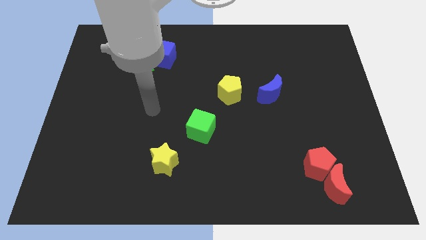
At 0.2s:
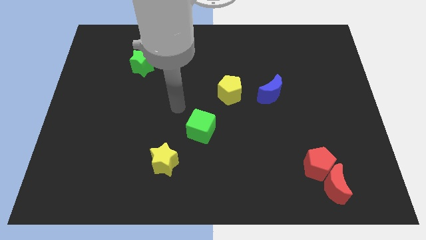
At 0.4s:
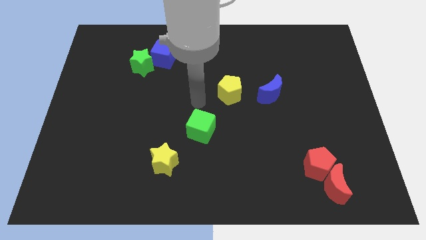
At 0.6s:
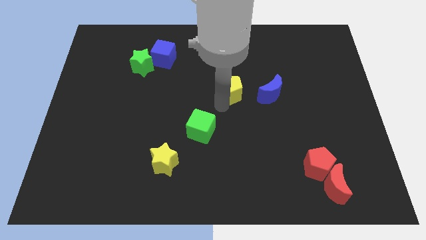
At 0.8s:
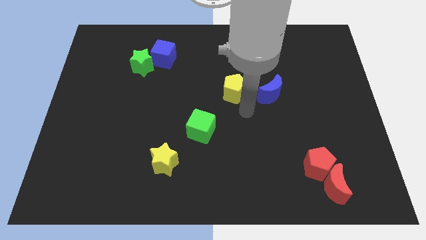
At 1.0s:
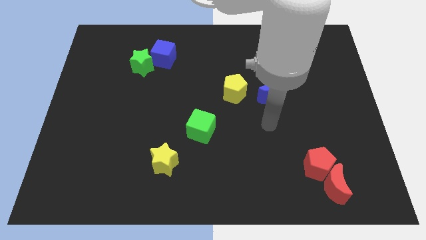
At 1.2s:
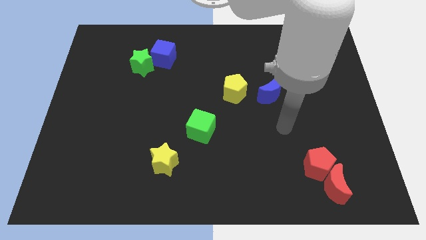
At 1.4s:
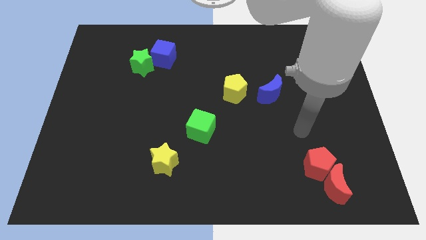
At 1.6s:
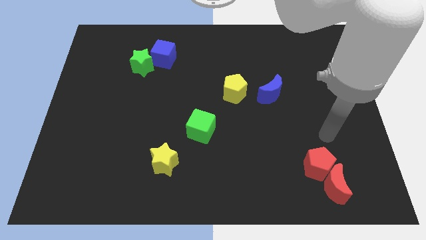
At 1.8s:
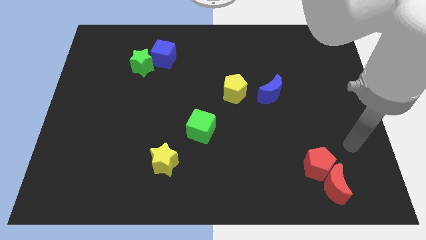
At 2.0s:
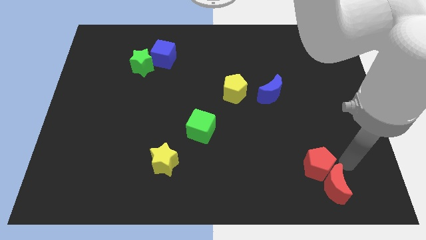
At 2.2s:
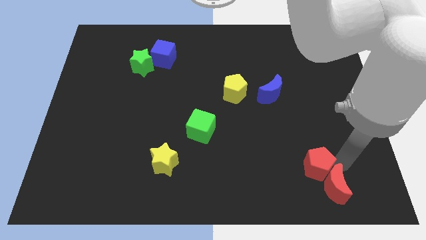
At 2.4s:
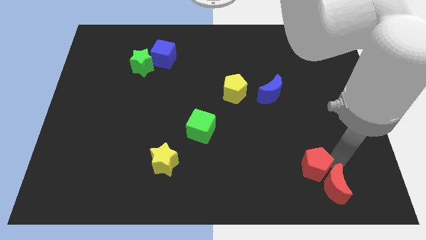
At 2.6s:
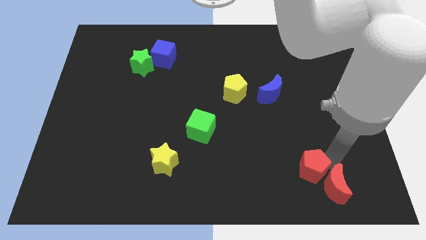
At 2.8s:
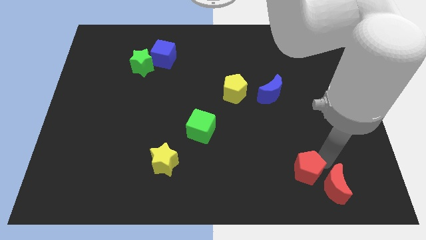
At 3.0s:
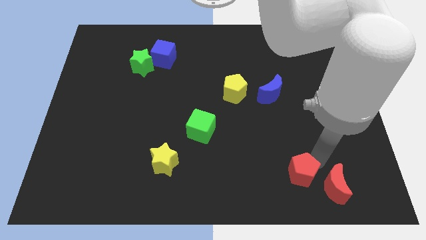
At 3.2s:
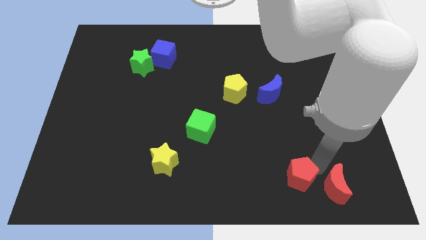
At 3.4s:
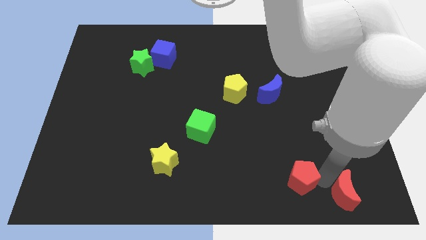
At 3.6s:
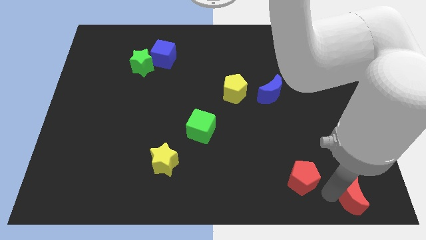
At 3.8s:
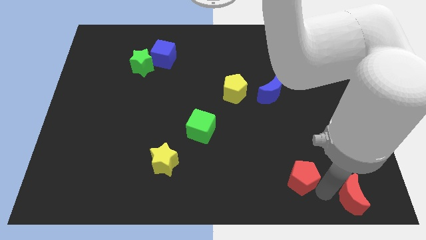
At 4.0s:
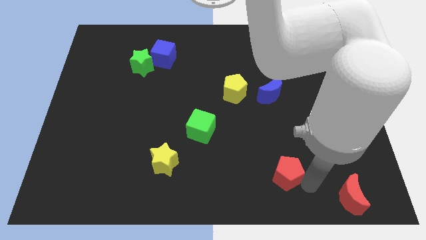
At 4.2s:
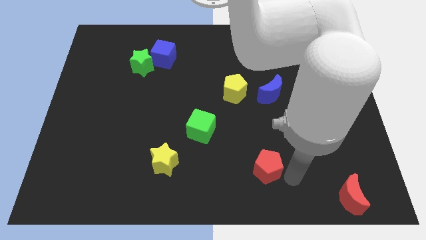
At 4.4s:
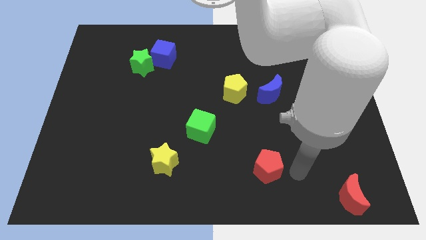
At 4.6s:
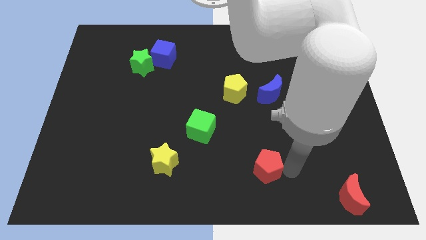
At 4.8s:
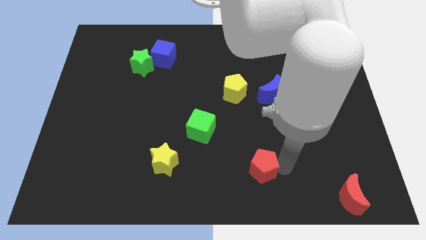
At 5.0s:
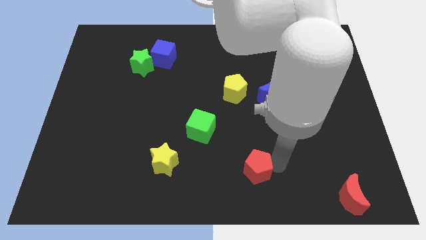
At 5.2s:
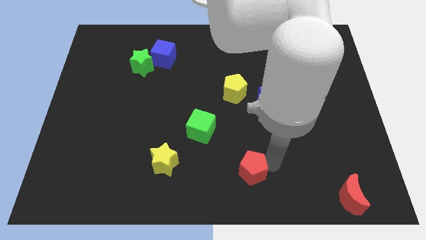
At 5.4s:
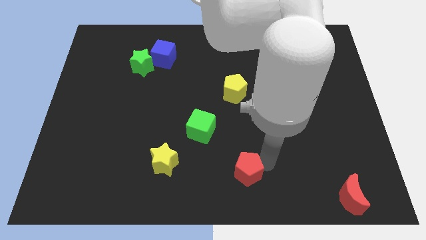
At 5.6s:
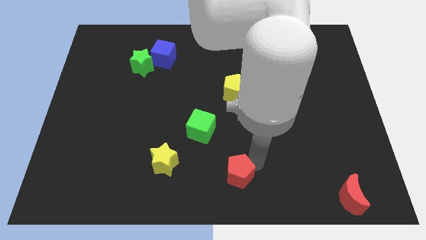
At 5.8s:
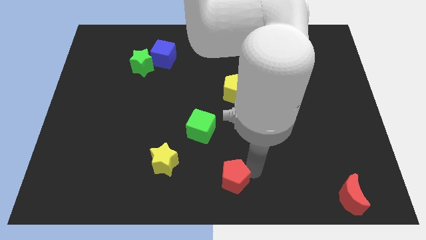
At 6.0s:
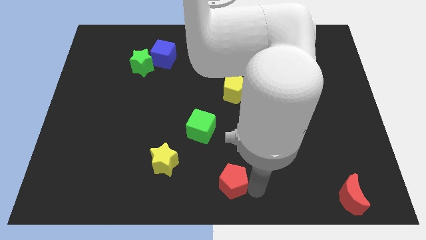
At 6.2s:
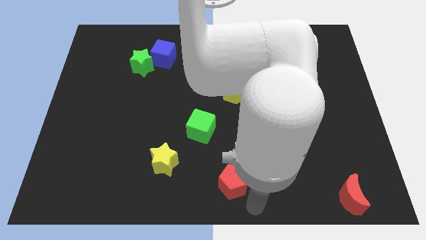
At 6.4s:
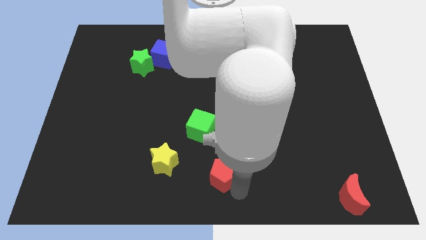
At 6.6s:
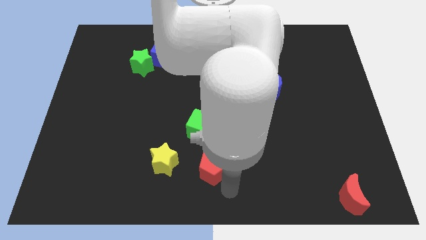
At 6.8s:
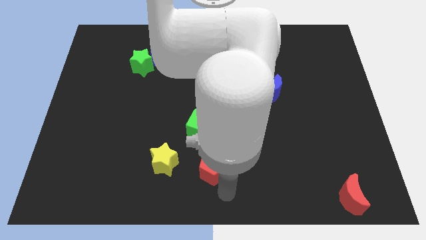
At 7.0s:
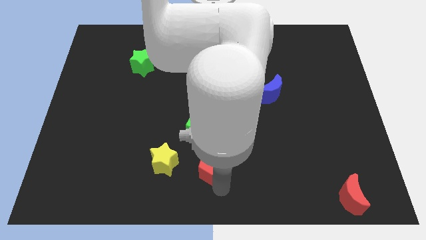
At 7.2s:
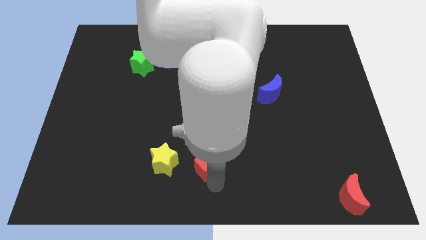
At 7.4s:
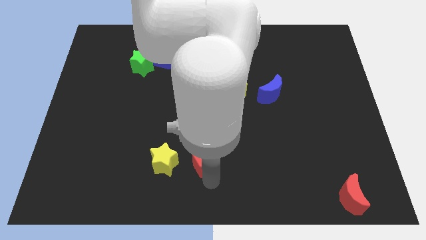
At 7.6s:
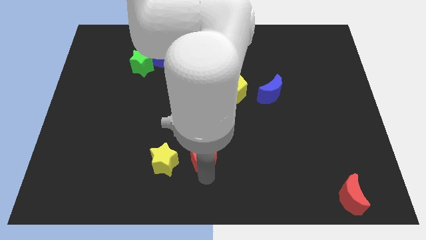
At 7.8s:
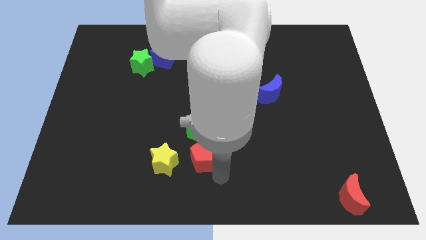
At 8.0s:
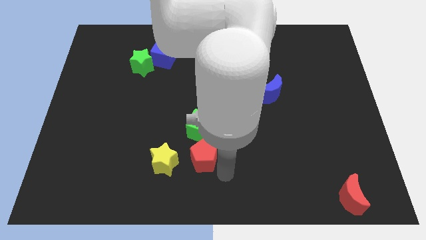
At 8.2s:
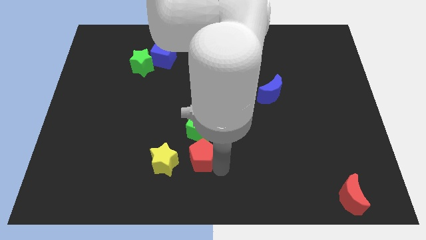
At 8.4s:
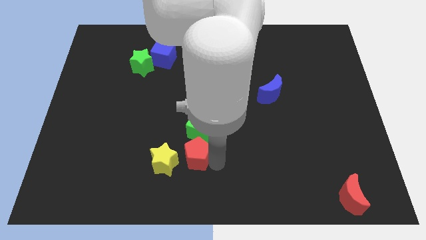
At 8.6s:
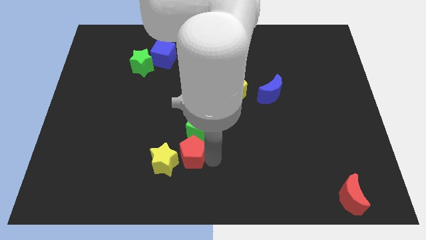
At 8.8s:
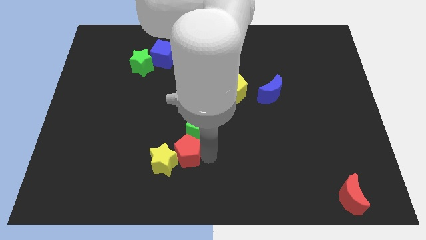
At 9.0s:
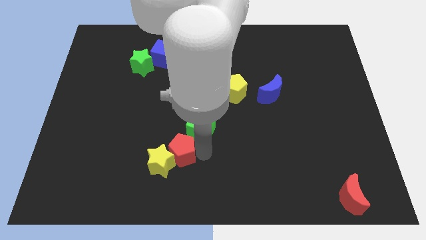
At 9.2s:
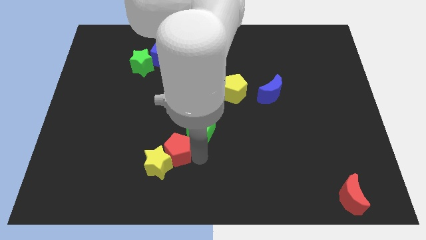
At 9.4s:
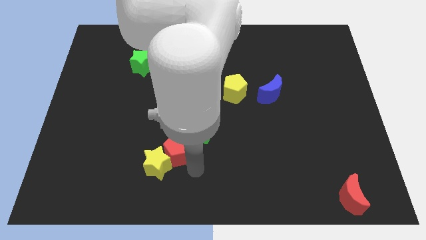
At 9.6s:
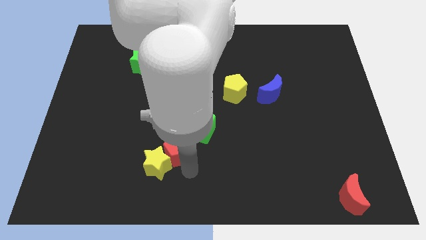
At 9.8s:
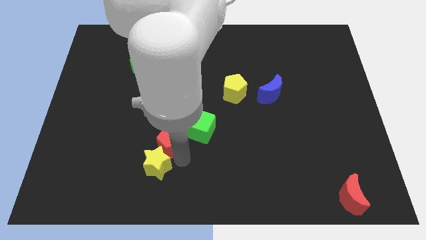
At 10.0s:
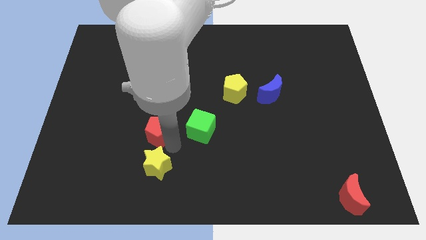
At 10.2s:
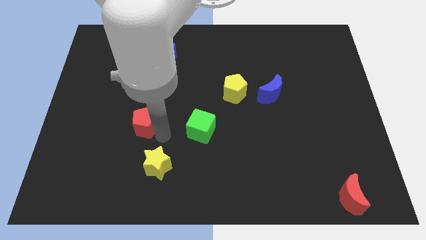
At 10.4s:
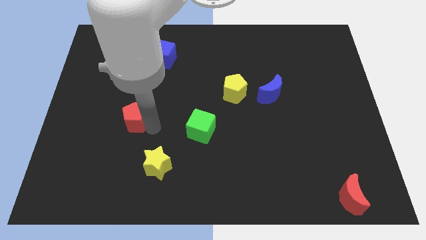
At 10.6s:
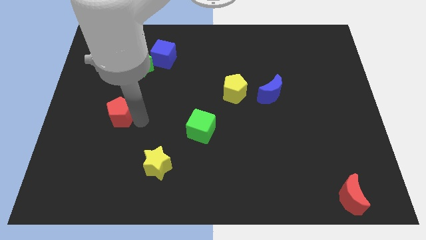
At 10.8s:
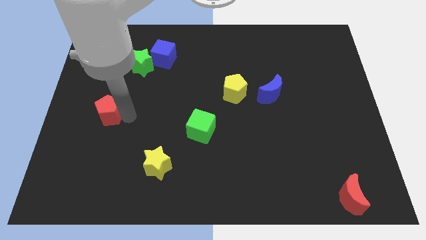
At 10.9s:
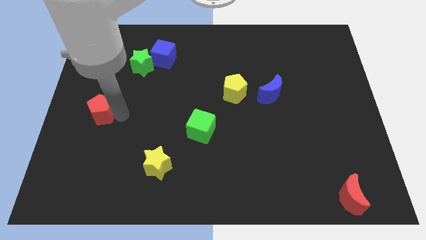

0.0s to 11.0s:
push the red pentagon to the left side

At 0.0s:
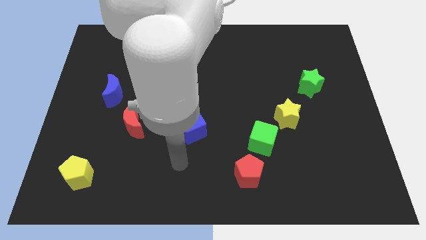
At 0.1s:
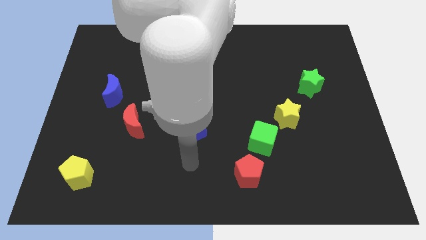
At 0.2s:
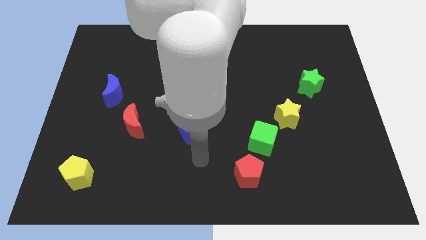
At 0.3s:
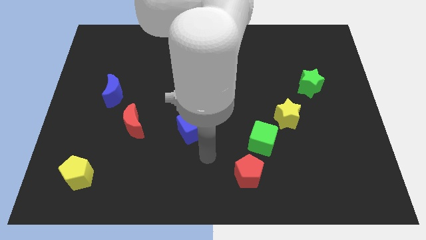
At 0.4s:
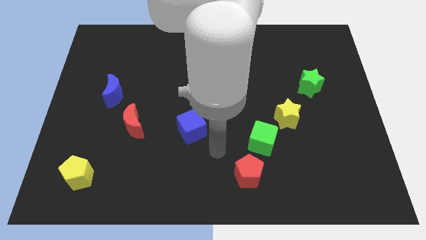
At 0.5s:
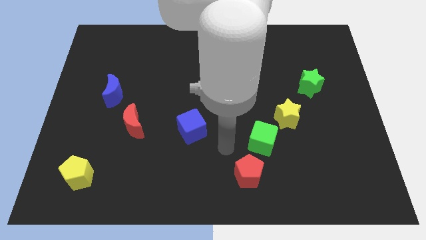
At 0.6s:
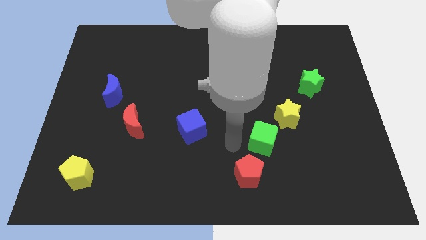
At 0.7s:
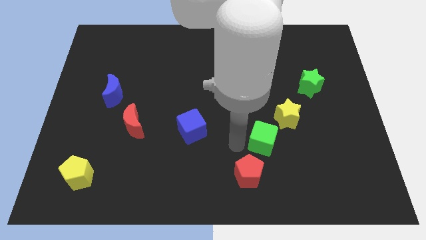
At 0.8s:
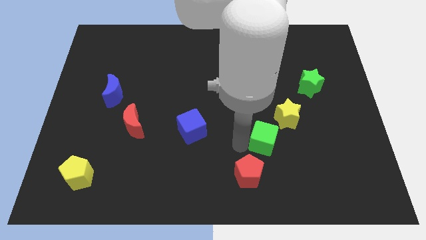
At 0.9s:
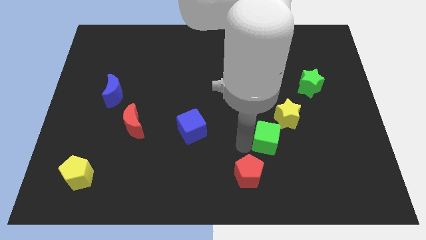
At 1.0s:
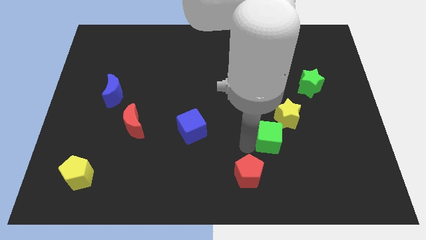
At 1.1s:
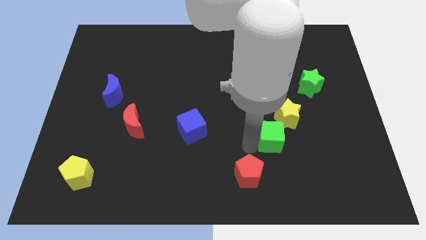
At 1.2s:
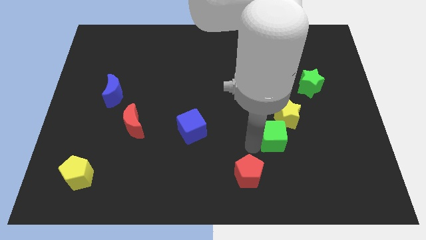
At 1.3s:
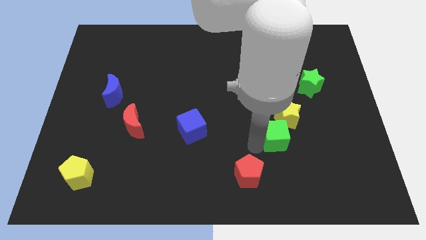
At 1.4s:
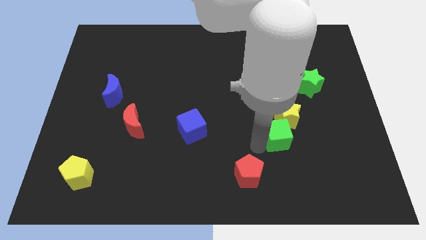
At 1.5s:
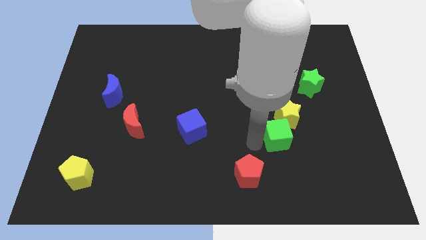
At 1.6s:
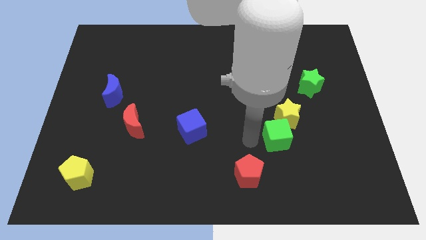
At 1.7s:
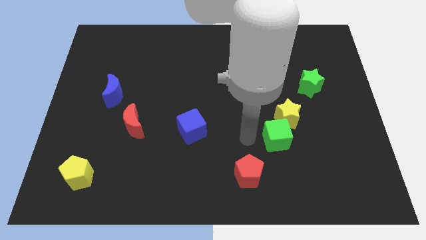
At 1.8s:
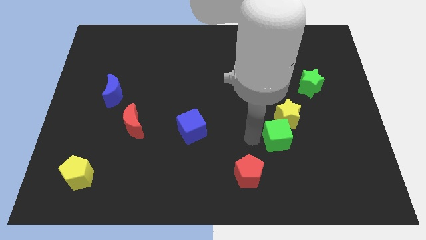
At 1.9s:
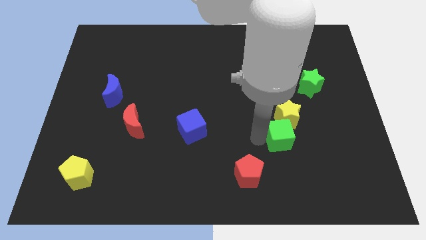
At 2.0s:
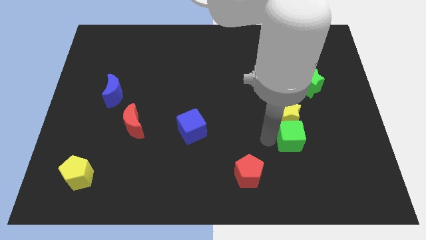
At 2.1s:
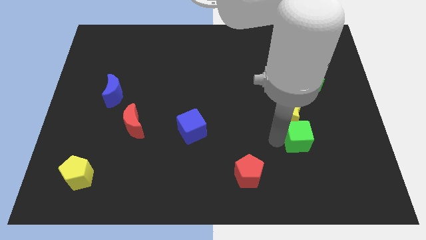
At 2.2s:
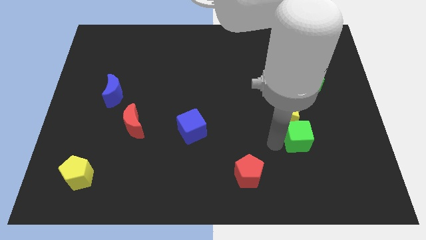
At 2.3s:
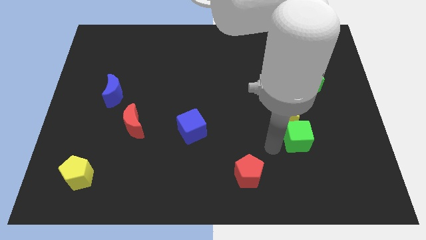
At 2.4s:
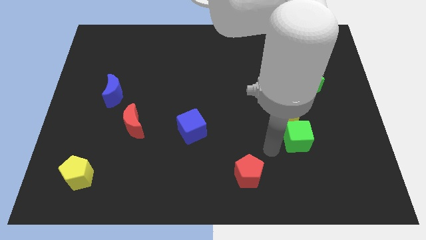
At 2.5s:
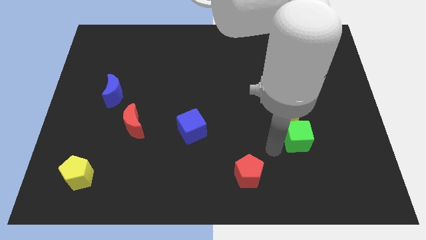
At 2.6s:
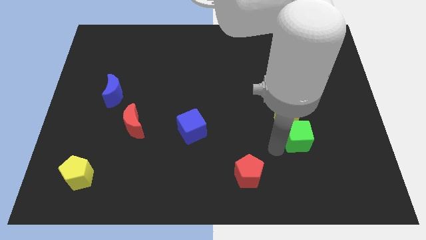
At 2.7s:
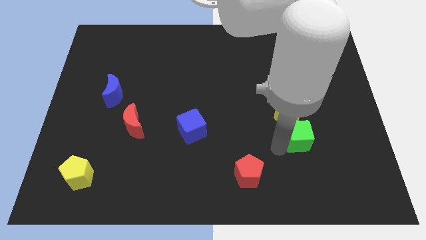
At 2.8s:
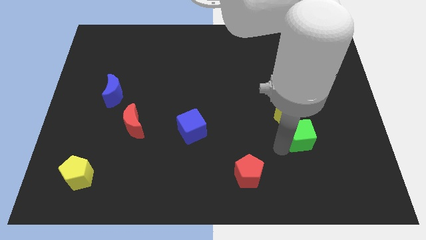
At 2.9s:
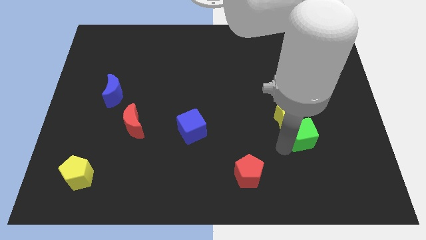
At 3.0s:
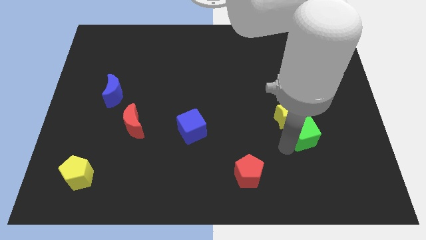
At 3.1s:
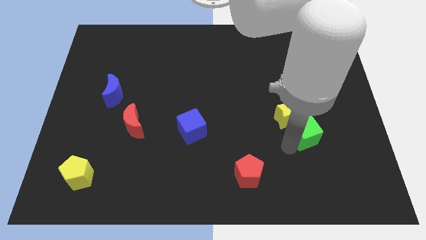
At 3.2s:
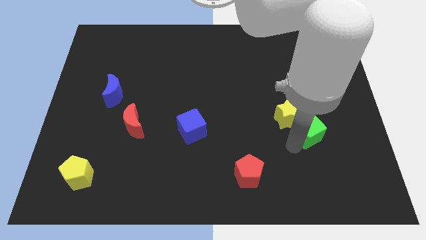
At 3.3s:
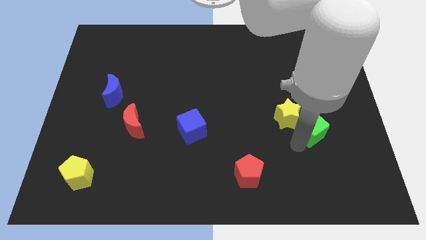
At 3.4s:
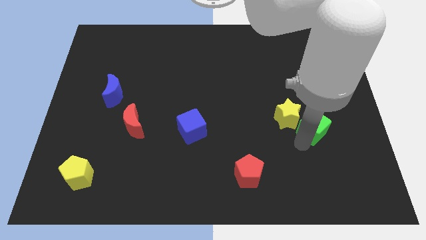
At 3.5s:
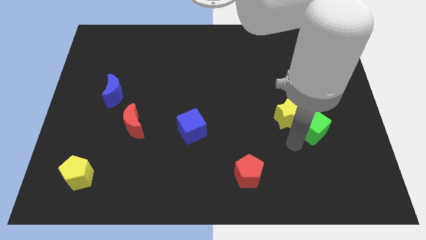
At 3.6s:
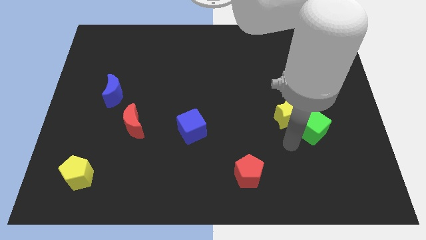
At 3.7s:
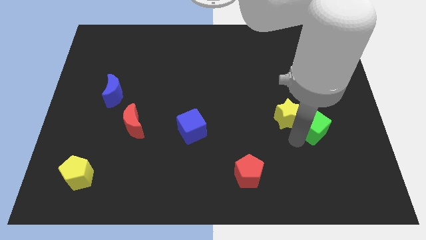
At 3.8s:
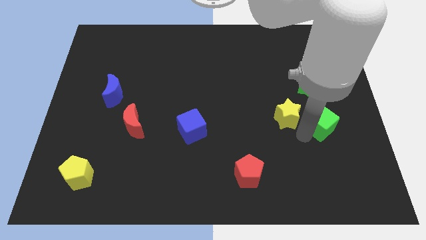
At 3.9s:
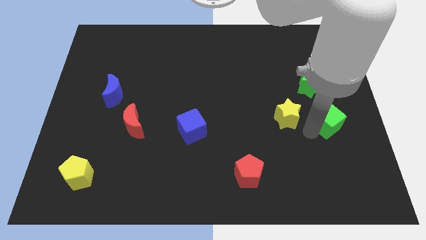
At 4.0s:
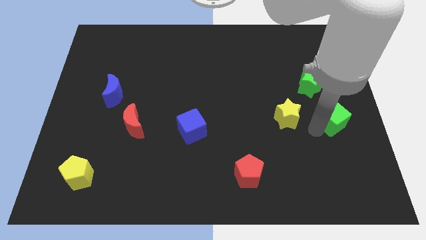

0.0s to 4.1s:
push the green cube to the right side
